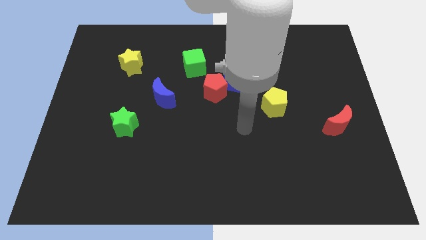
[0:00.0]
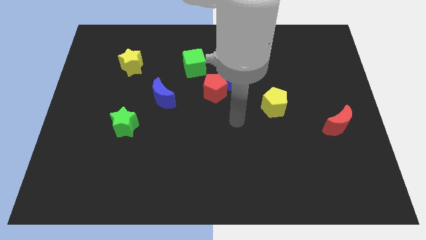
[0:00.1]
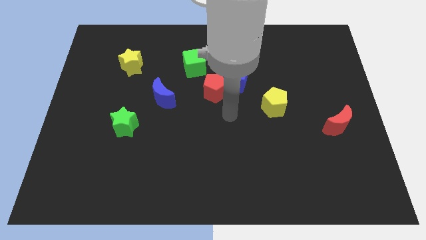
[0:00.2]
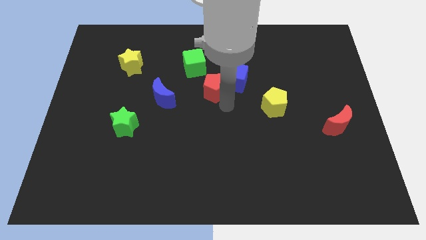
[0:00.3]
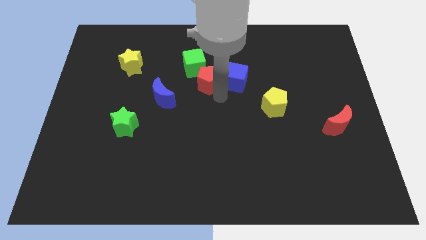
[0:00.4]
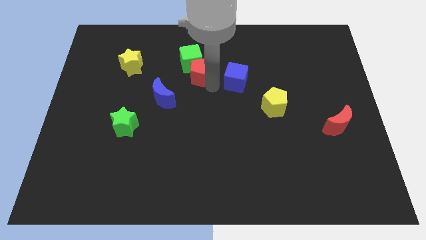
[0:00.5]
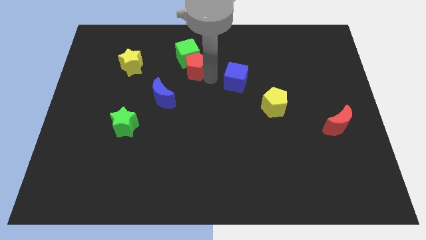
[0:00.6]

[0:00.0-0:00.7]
move the blue cube away from the red pentagon

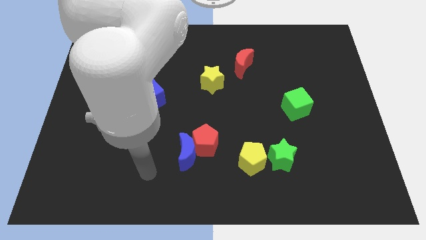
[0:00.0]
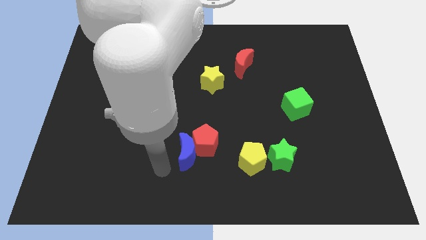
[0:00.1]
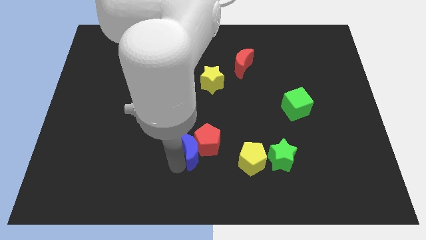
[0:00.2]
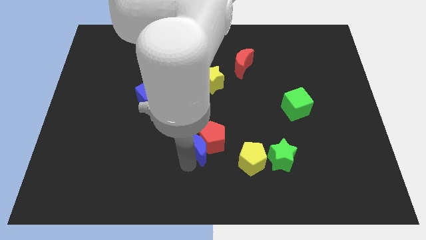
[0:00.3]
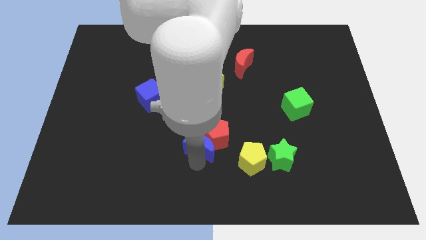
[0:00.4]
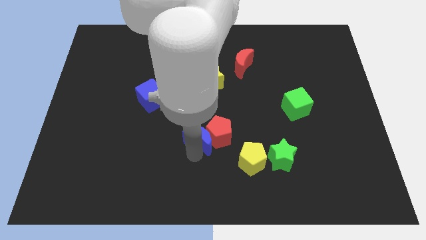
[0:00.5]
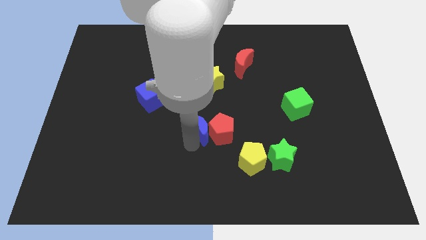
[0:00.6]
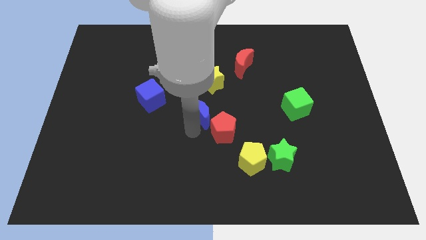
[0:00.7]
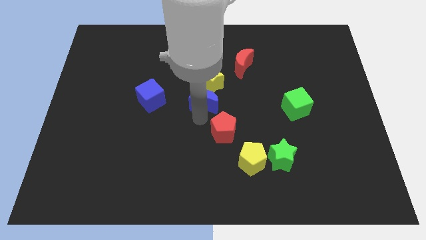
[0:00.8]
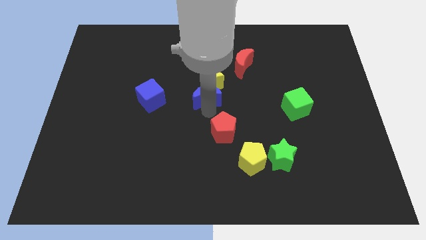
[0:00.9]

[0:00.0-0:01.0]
separate the red pentagon from the blue moon

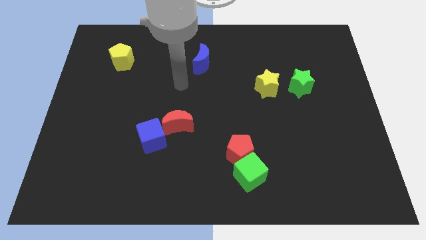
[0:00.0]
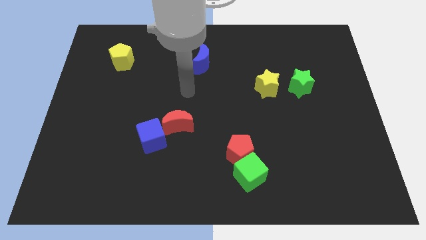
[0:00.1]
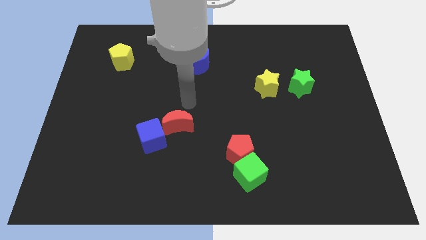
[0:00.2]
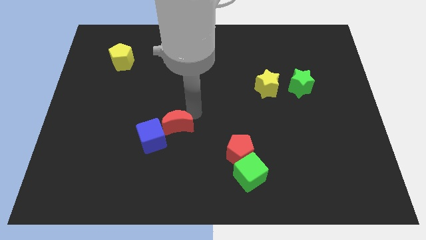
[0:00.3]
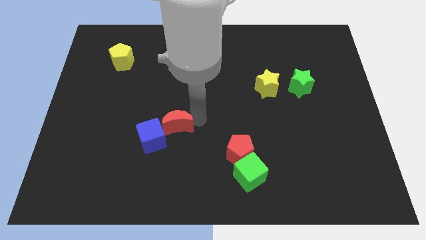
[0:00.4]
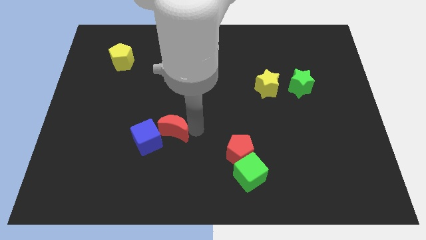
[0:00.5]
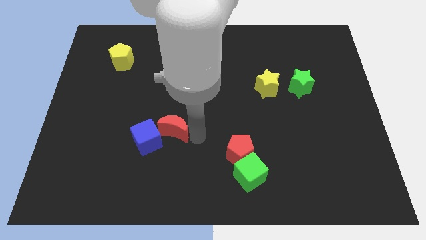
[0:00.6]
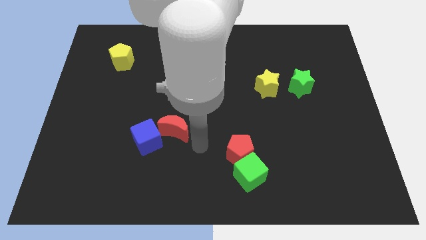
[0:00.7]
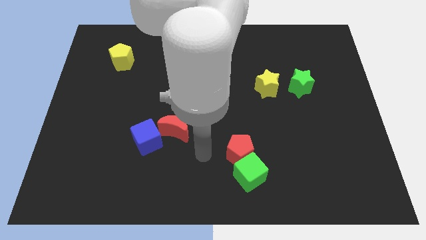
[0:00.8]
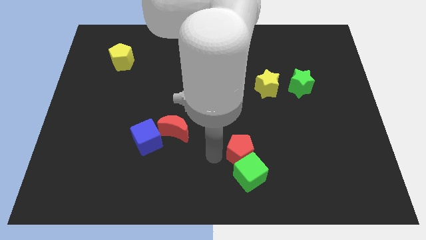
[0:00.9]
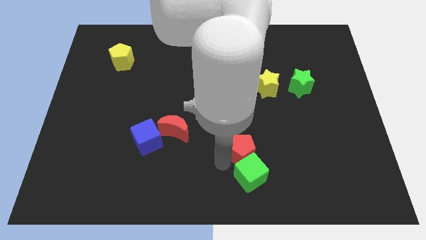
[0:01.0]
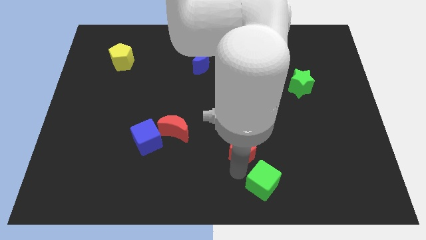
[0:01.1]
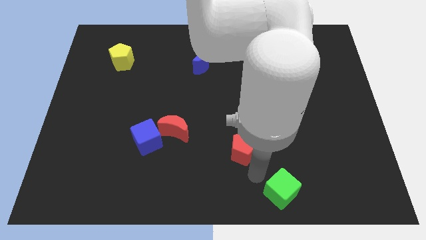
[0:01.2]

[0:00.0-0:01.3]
move the red pentagon away from the green cube

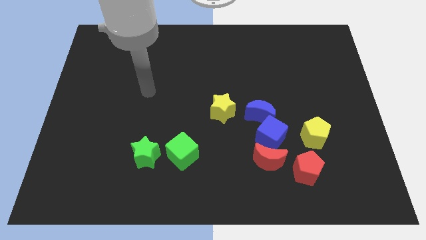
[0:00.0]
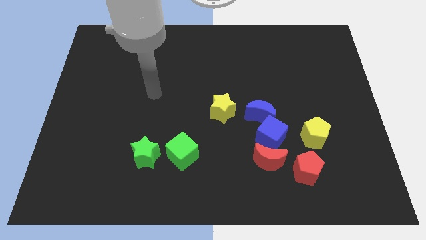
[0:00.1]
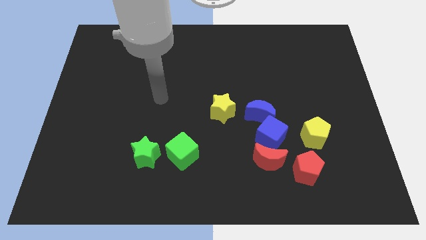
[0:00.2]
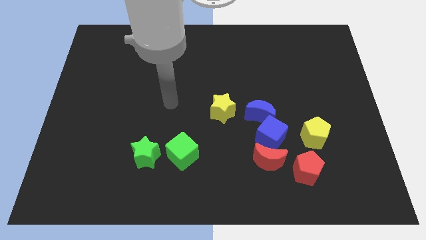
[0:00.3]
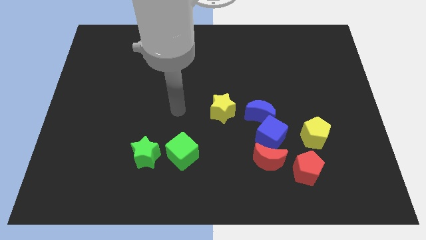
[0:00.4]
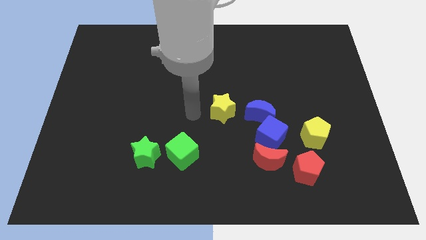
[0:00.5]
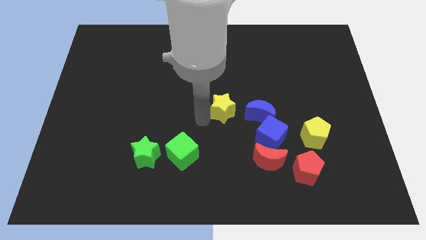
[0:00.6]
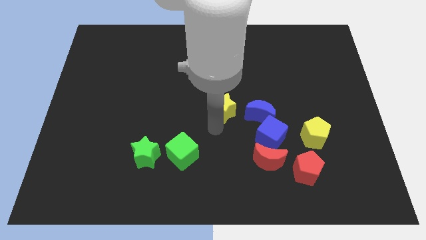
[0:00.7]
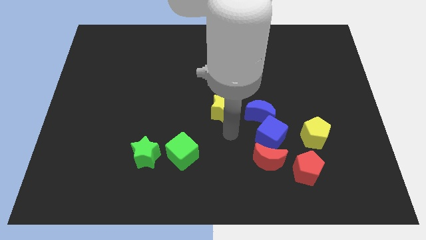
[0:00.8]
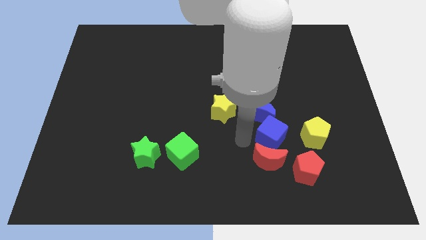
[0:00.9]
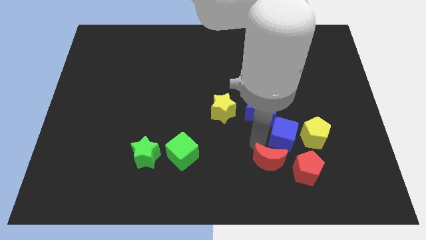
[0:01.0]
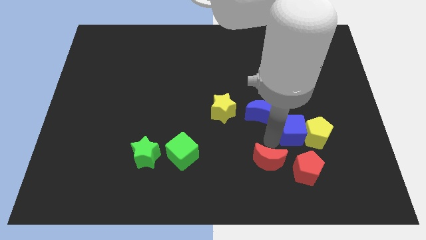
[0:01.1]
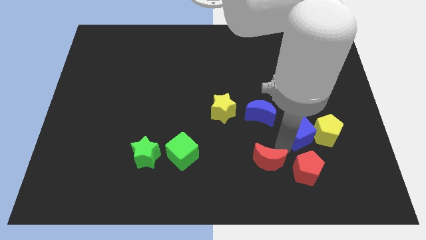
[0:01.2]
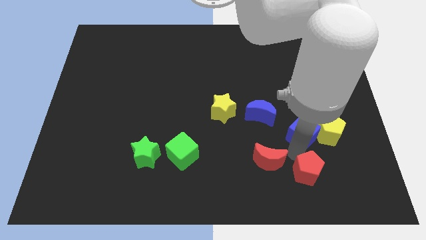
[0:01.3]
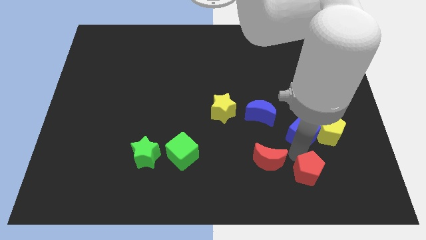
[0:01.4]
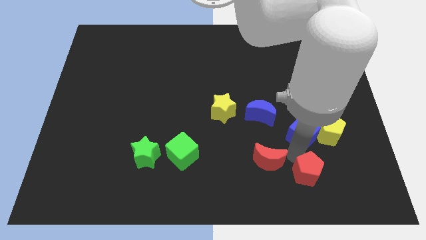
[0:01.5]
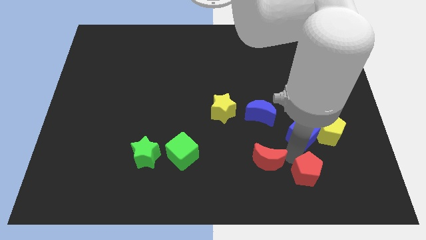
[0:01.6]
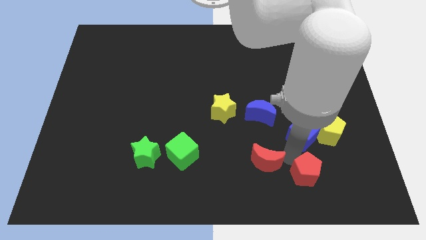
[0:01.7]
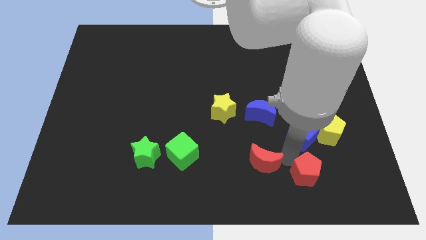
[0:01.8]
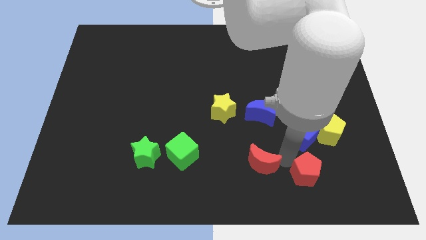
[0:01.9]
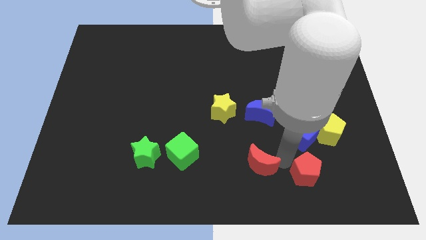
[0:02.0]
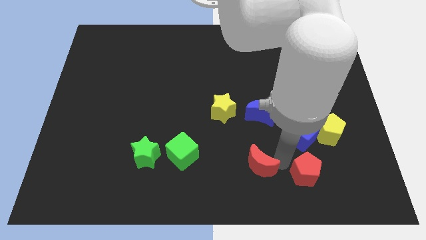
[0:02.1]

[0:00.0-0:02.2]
separate the red moon from the blue cube and red pentagon

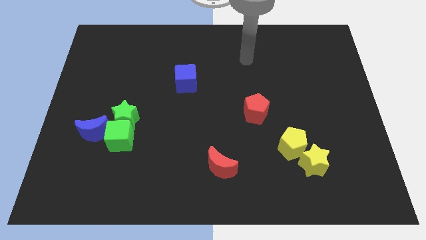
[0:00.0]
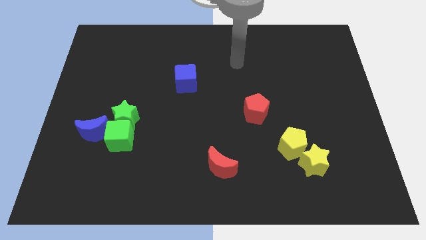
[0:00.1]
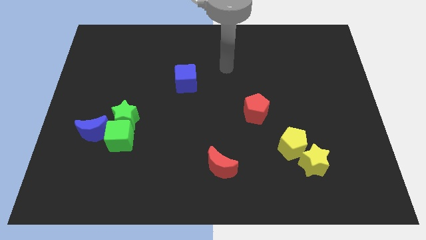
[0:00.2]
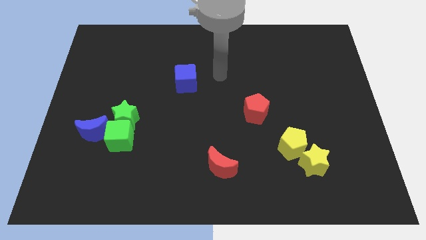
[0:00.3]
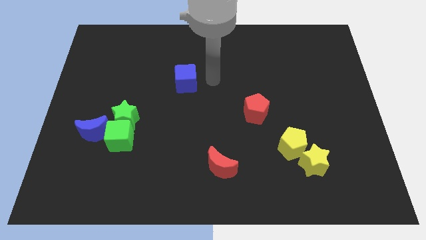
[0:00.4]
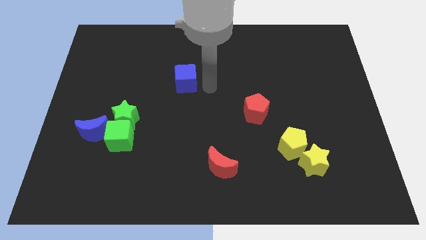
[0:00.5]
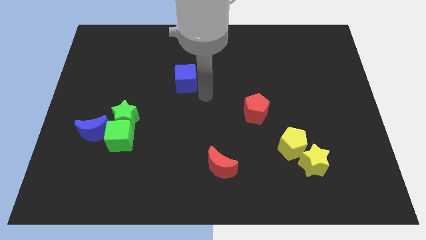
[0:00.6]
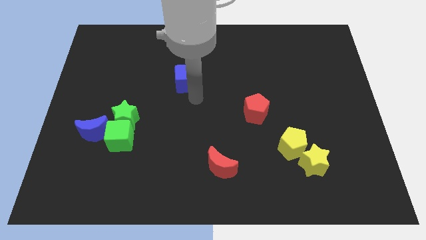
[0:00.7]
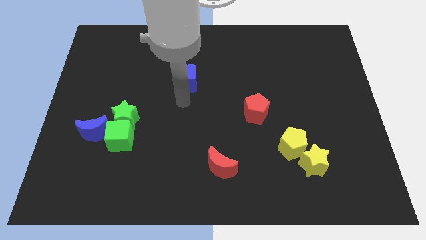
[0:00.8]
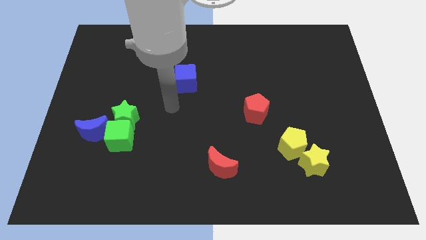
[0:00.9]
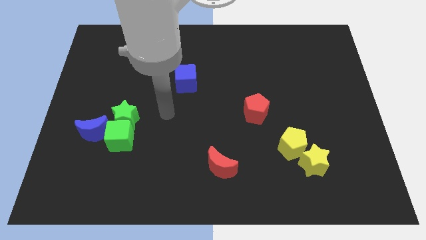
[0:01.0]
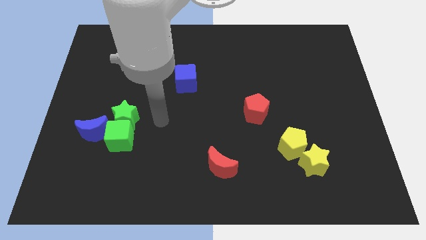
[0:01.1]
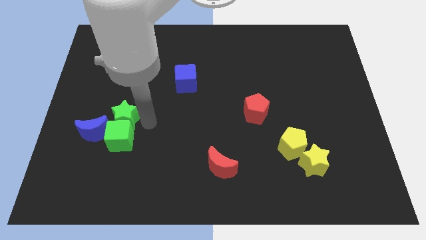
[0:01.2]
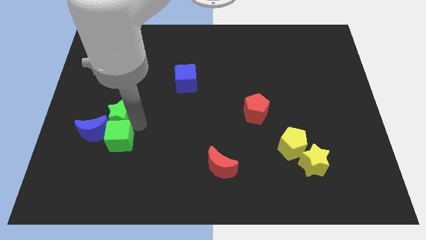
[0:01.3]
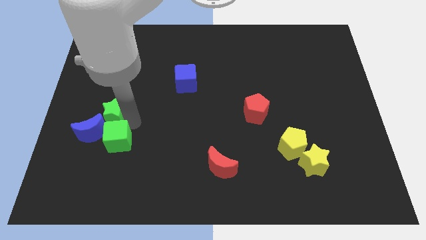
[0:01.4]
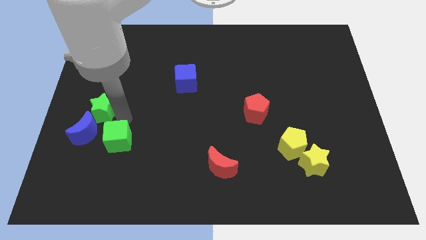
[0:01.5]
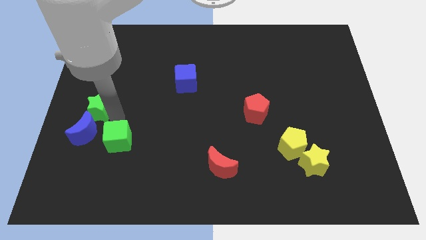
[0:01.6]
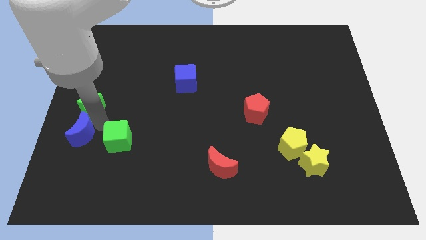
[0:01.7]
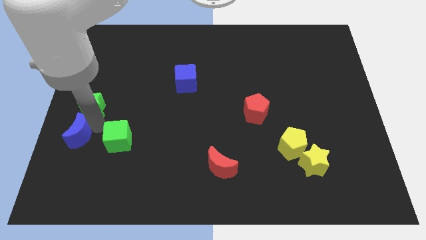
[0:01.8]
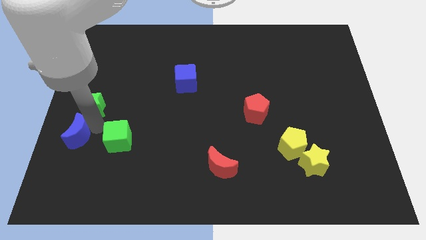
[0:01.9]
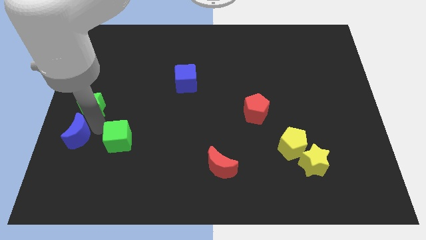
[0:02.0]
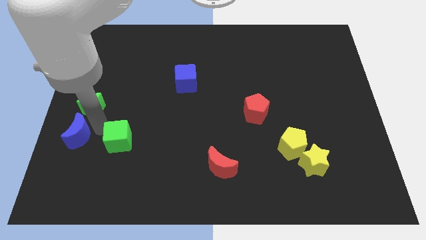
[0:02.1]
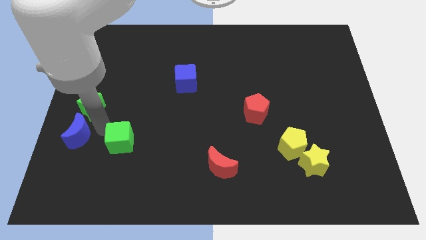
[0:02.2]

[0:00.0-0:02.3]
move the green cube away from the green star and blue moon

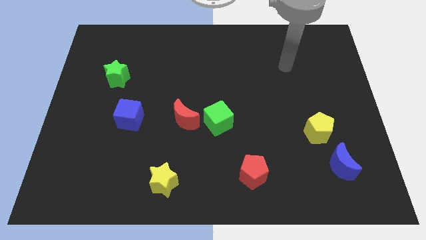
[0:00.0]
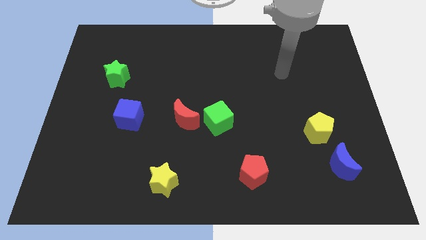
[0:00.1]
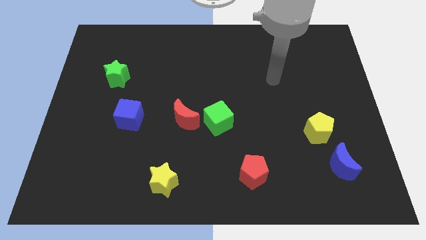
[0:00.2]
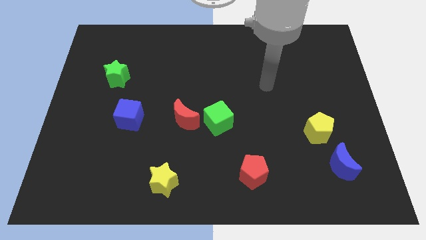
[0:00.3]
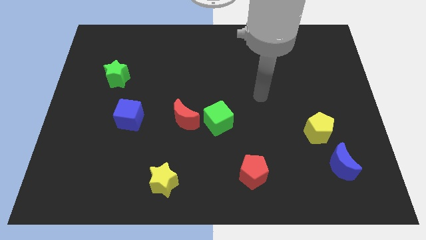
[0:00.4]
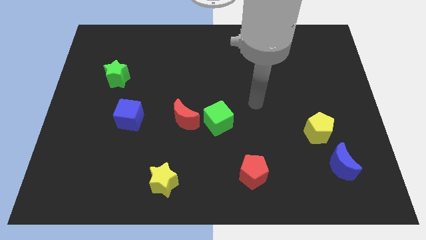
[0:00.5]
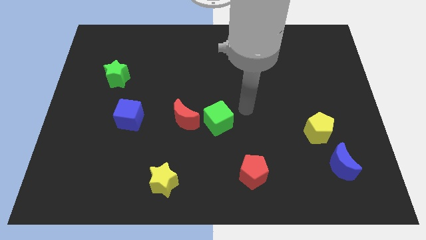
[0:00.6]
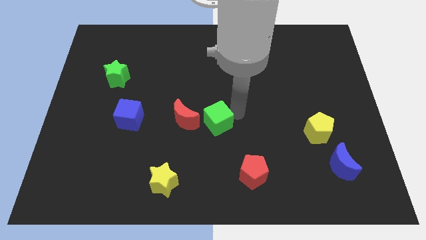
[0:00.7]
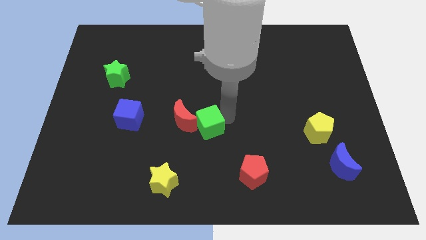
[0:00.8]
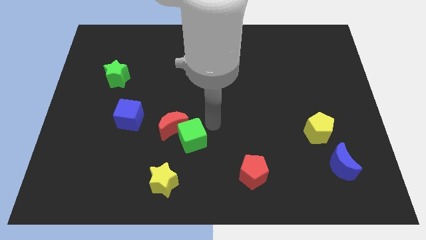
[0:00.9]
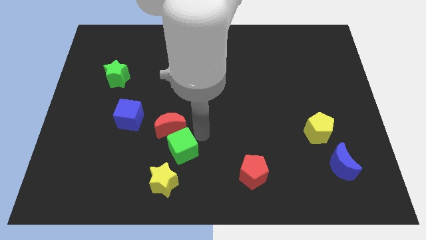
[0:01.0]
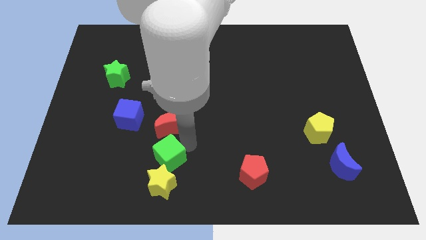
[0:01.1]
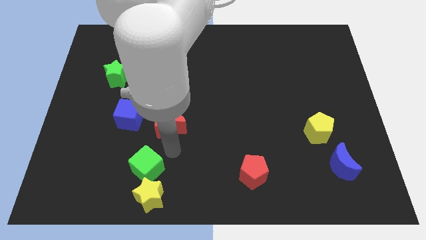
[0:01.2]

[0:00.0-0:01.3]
pull the red moon apart from the green cube

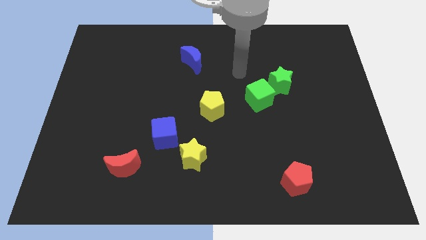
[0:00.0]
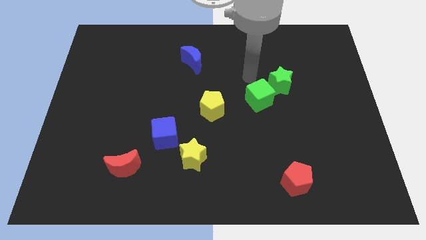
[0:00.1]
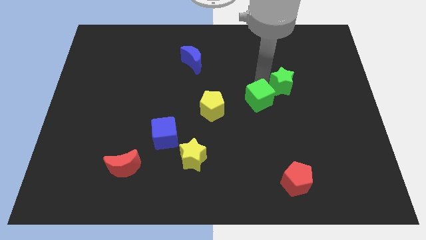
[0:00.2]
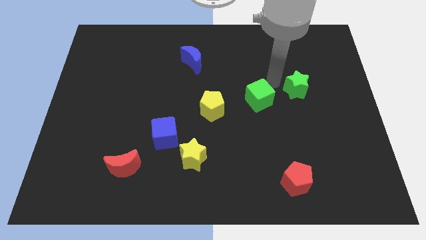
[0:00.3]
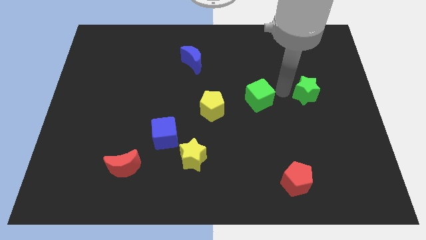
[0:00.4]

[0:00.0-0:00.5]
pull the green cube apart from the green star

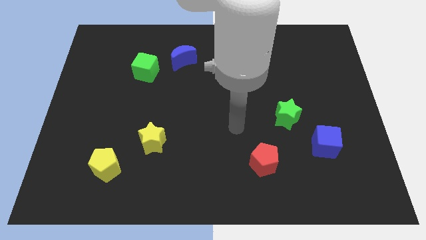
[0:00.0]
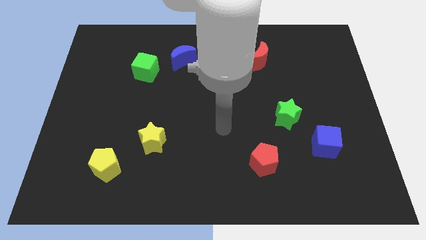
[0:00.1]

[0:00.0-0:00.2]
move the blue moon away from the green cube
